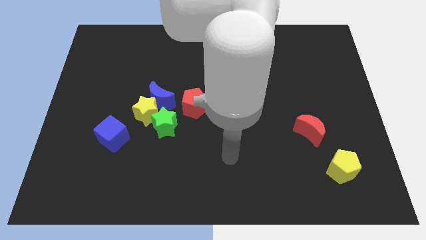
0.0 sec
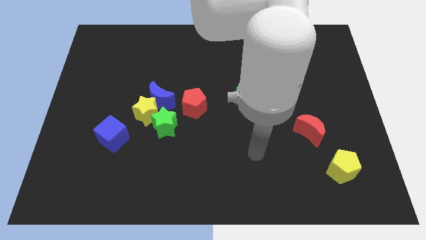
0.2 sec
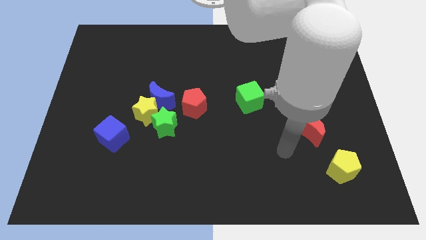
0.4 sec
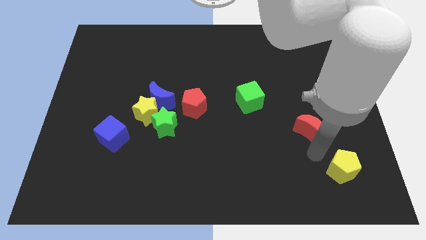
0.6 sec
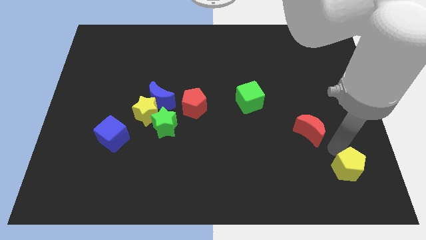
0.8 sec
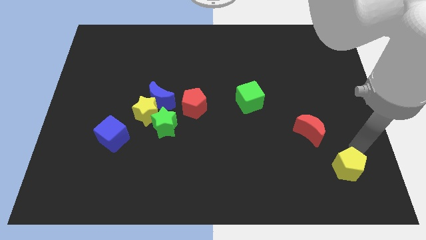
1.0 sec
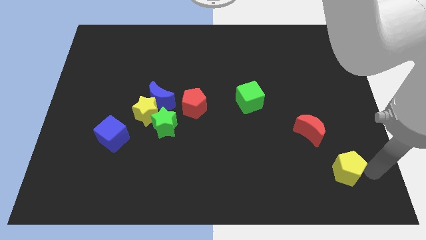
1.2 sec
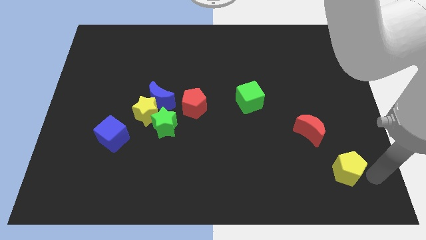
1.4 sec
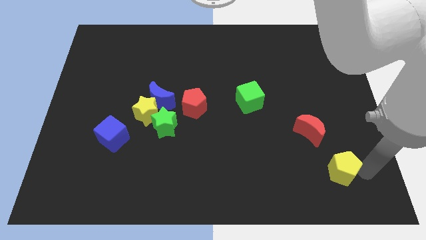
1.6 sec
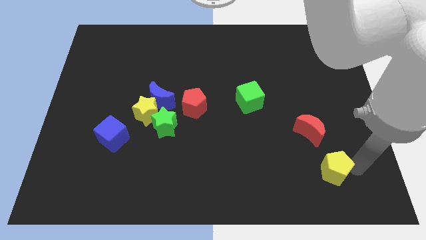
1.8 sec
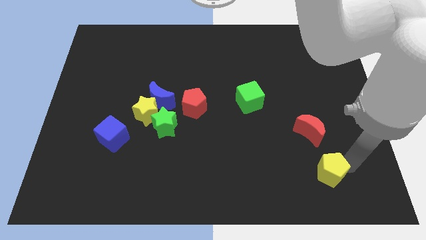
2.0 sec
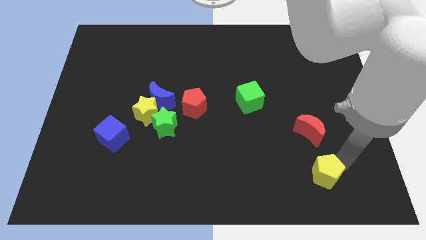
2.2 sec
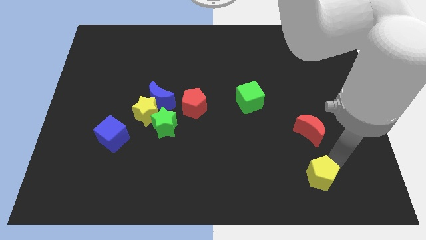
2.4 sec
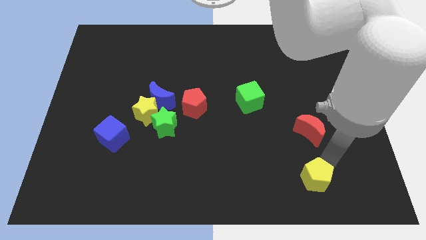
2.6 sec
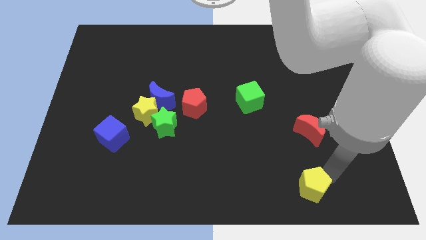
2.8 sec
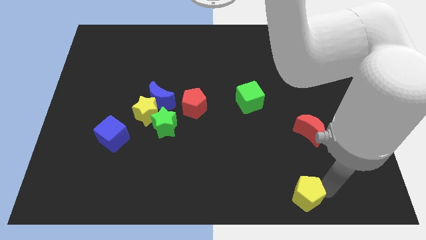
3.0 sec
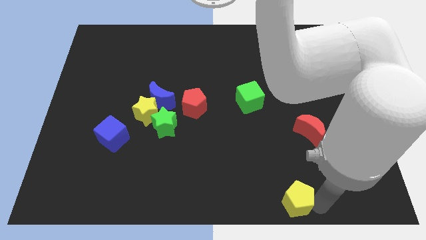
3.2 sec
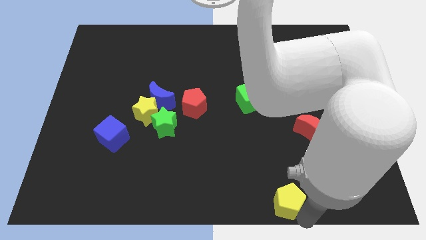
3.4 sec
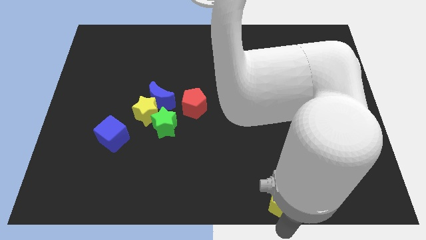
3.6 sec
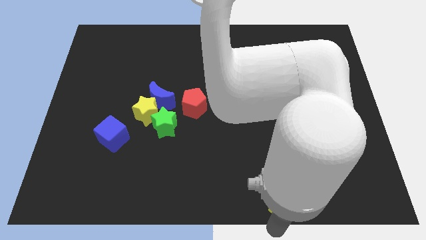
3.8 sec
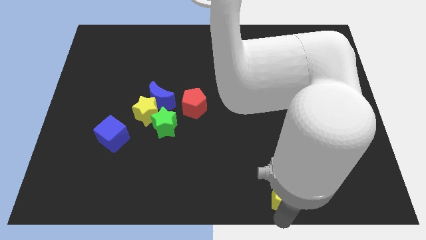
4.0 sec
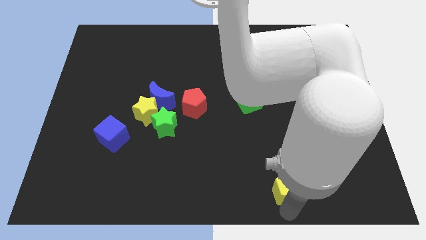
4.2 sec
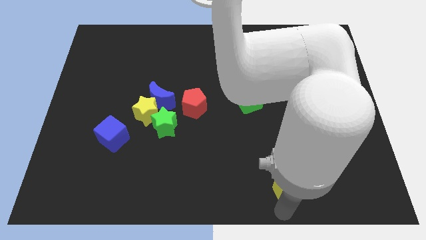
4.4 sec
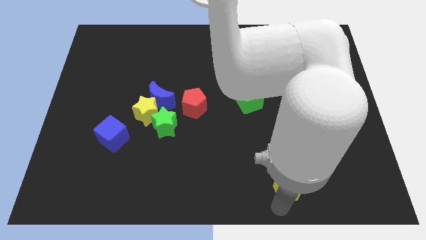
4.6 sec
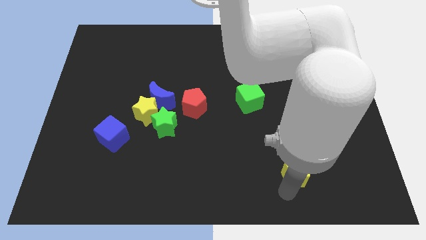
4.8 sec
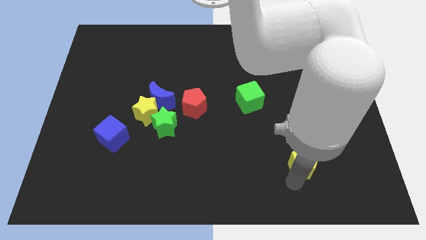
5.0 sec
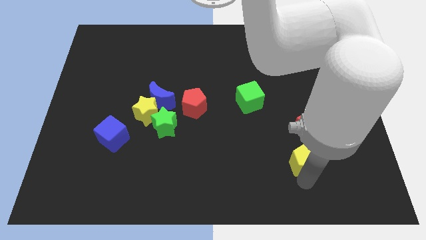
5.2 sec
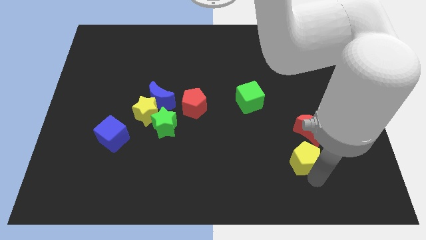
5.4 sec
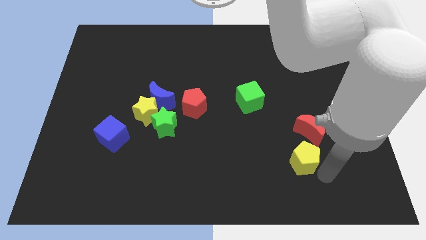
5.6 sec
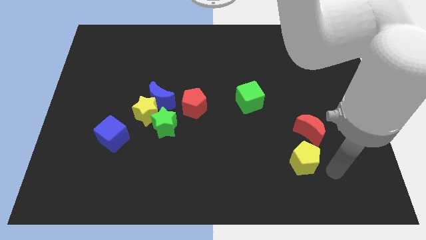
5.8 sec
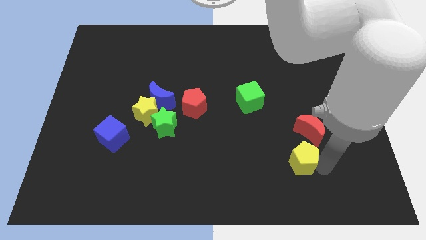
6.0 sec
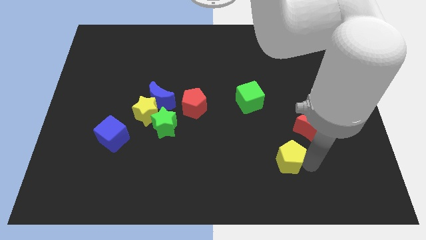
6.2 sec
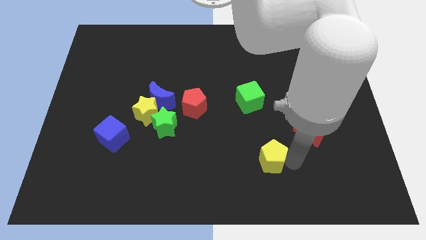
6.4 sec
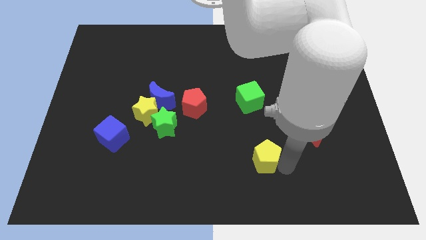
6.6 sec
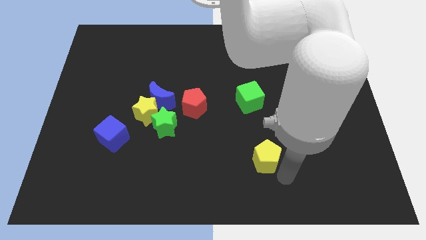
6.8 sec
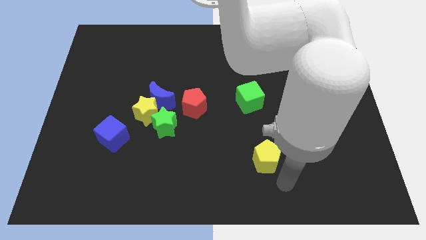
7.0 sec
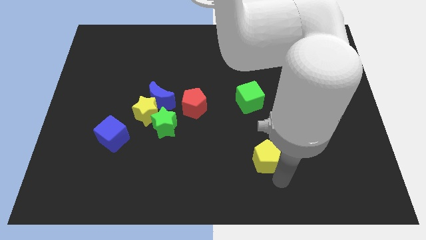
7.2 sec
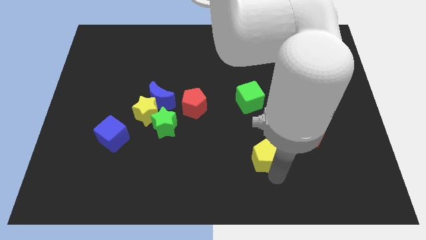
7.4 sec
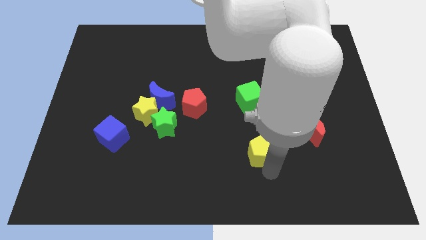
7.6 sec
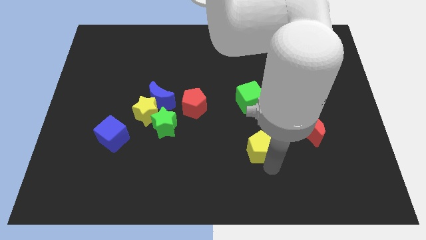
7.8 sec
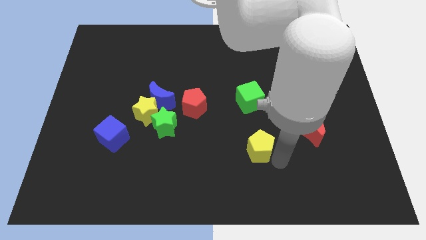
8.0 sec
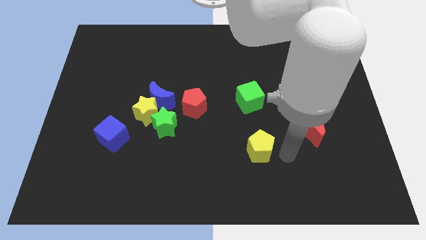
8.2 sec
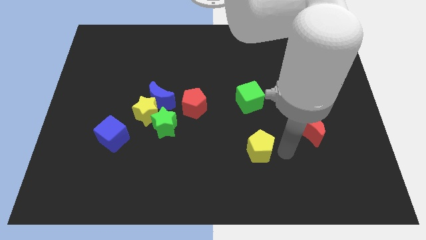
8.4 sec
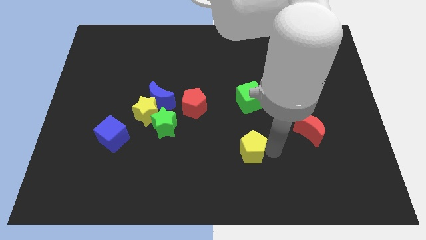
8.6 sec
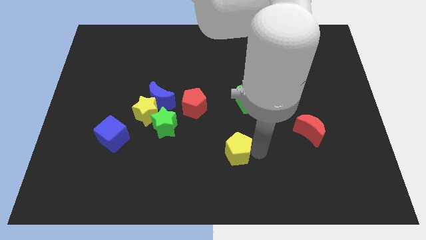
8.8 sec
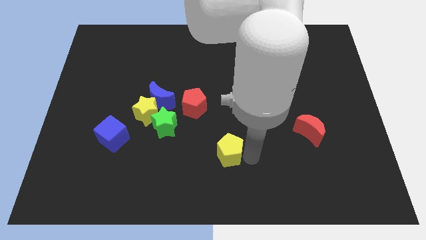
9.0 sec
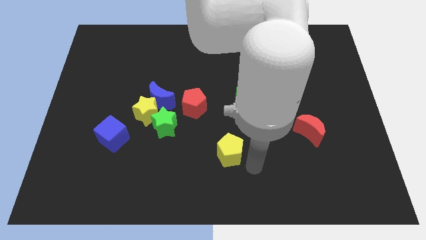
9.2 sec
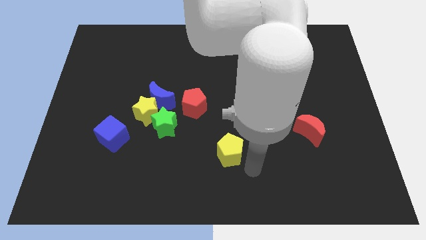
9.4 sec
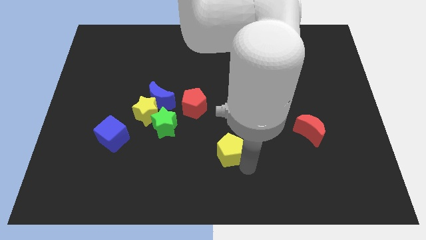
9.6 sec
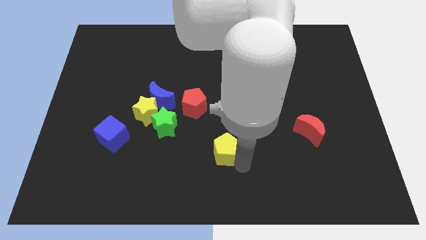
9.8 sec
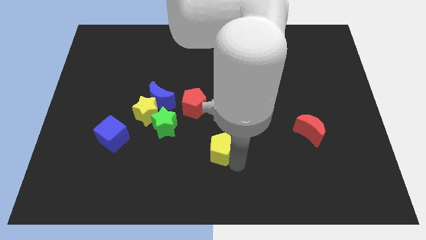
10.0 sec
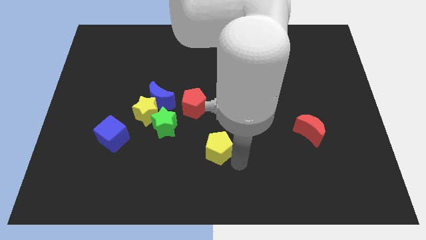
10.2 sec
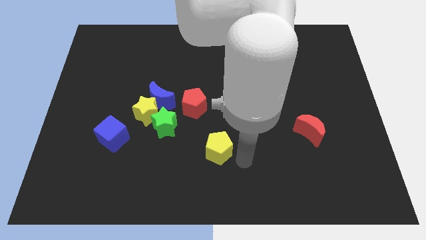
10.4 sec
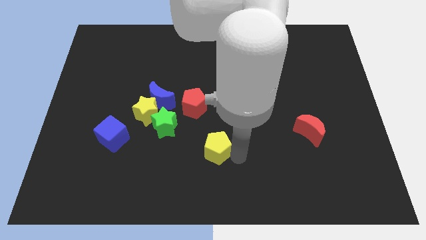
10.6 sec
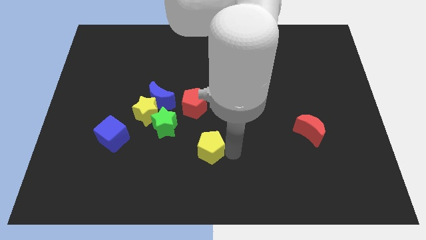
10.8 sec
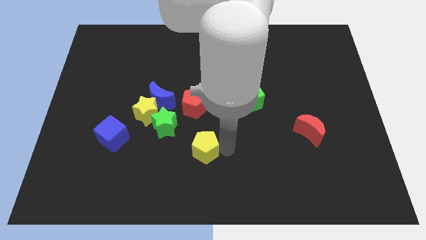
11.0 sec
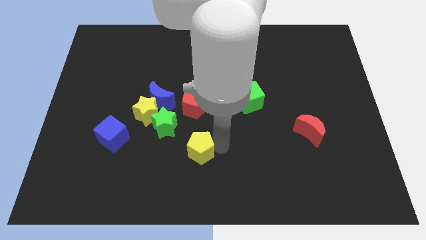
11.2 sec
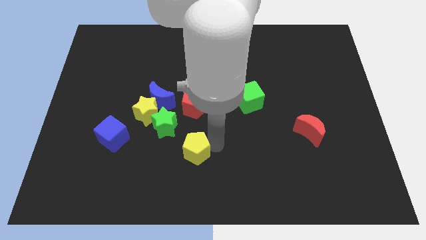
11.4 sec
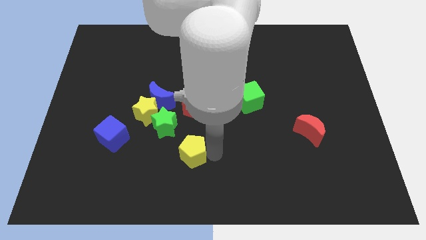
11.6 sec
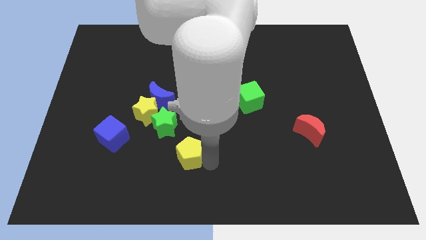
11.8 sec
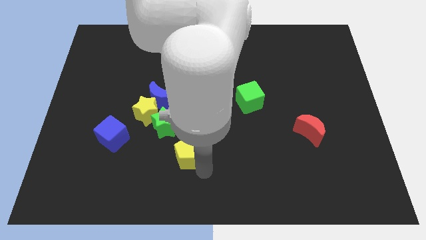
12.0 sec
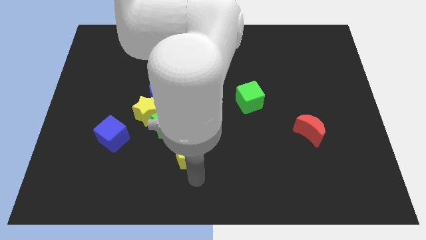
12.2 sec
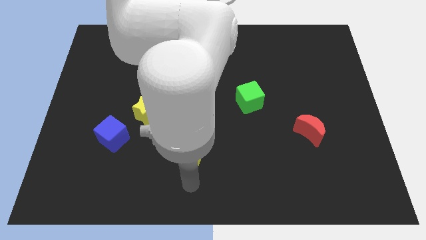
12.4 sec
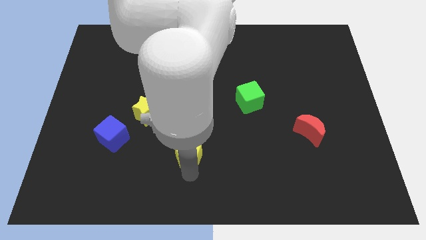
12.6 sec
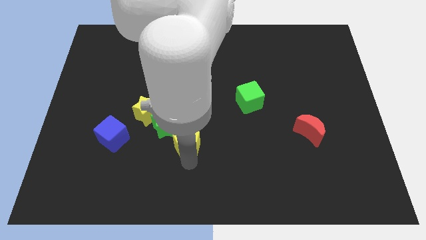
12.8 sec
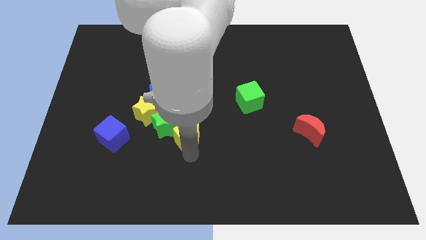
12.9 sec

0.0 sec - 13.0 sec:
push the yellow pentagon to the green star

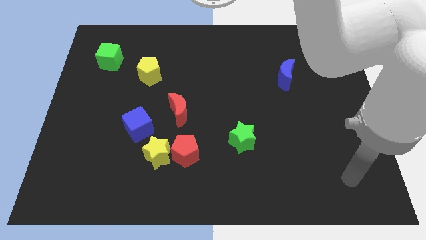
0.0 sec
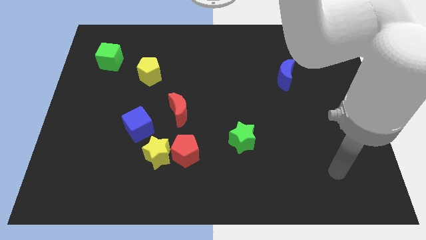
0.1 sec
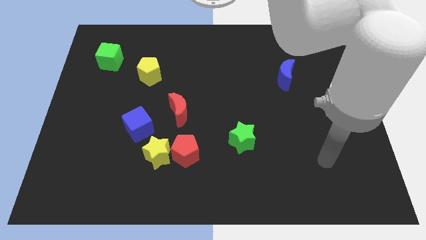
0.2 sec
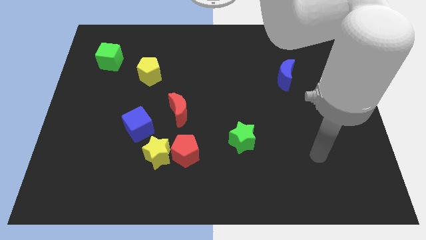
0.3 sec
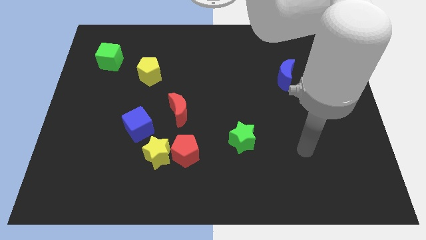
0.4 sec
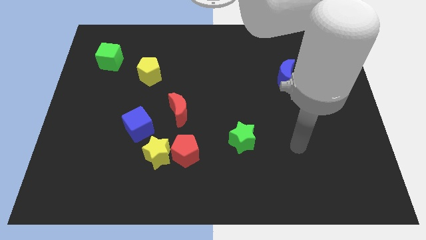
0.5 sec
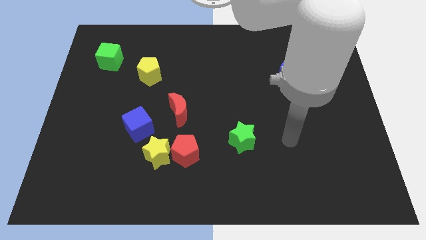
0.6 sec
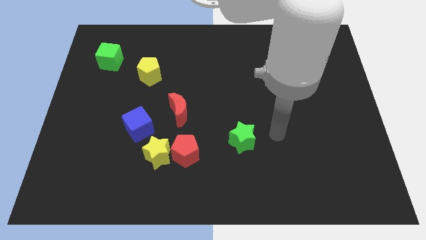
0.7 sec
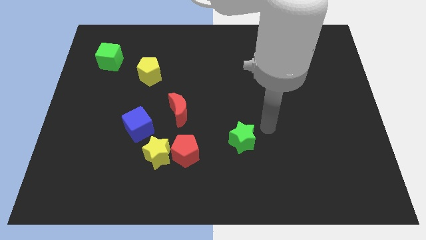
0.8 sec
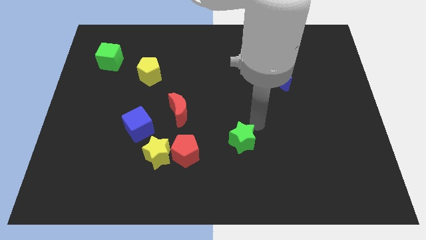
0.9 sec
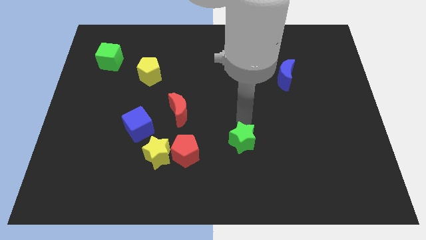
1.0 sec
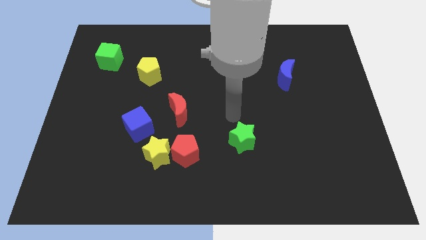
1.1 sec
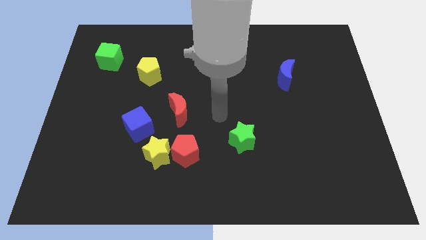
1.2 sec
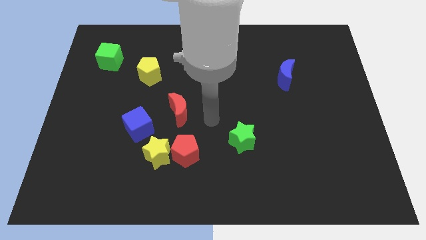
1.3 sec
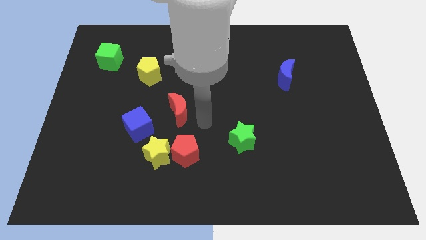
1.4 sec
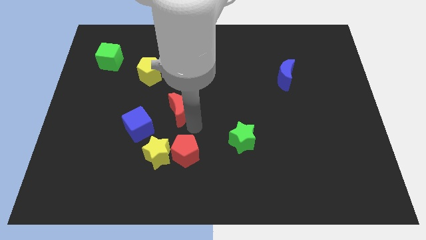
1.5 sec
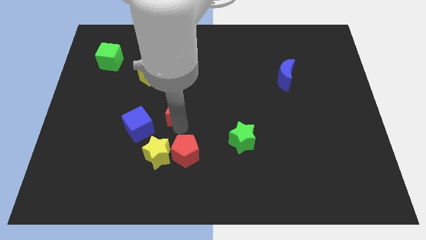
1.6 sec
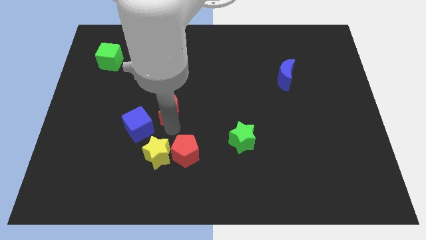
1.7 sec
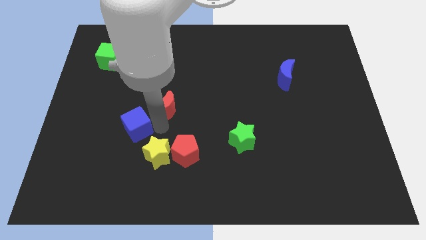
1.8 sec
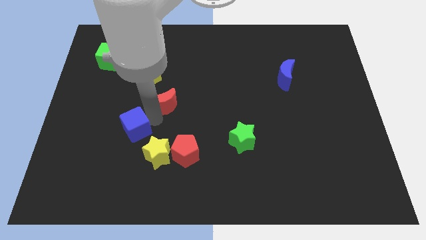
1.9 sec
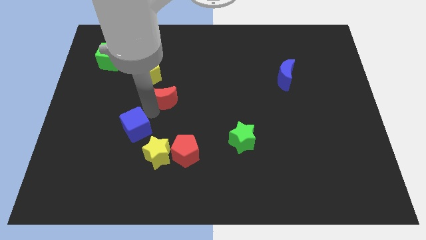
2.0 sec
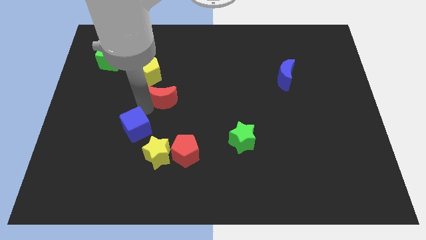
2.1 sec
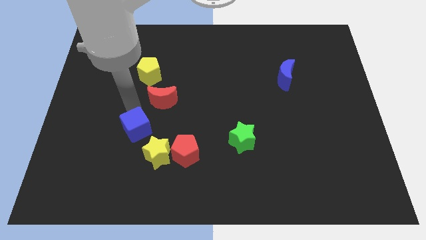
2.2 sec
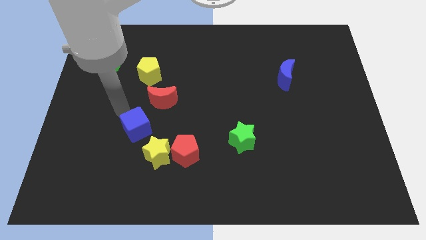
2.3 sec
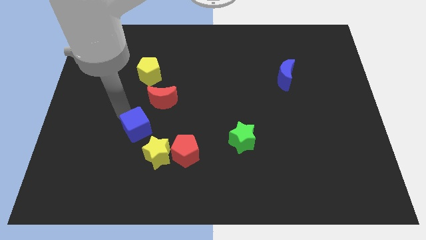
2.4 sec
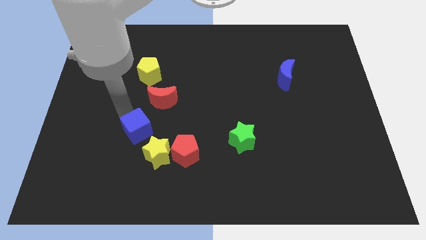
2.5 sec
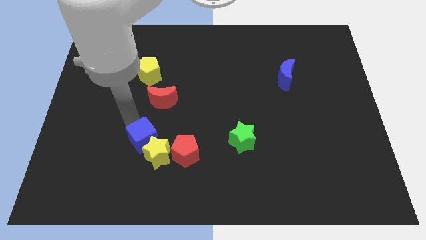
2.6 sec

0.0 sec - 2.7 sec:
push the blue cube towards the yellow star
